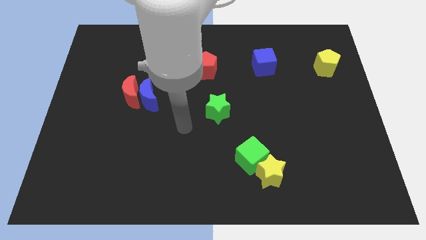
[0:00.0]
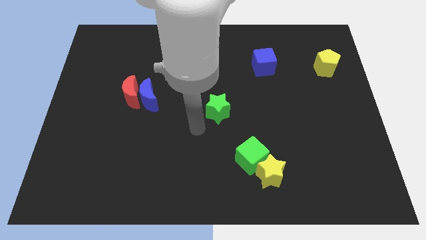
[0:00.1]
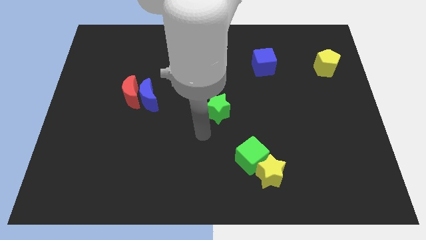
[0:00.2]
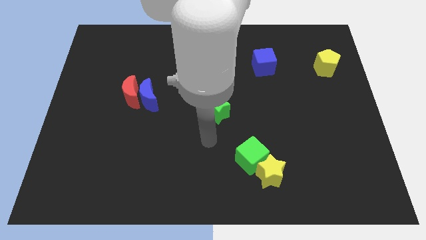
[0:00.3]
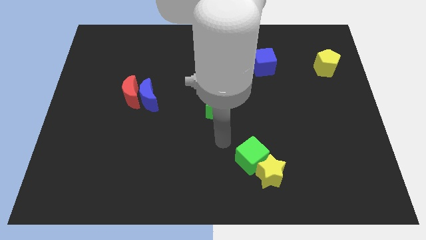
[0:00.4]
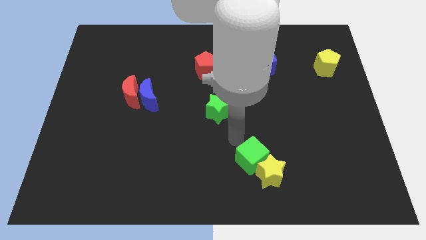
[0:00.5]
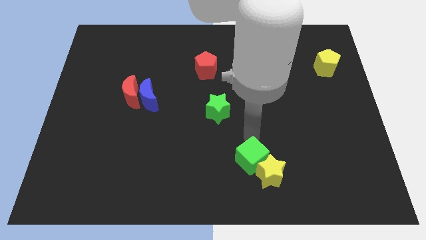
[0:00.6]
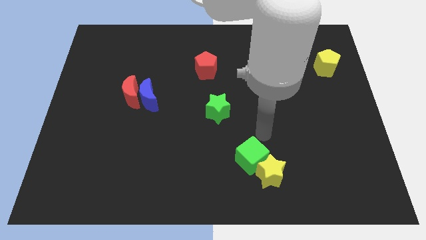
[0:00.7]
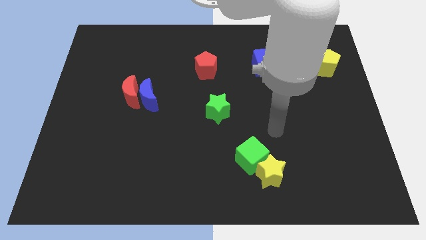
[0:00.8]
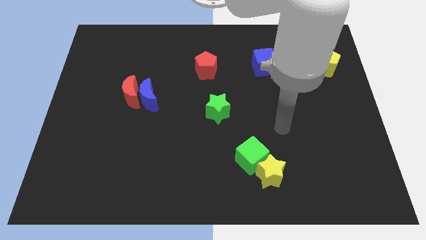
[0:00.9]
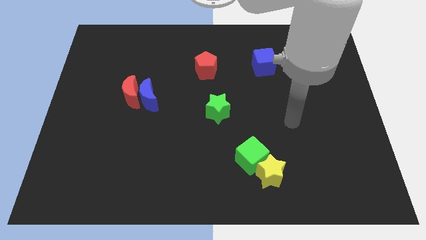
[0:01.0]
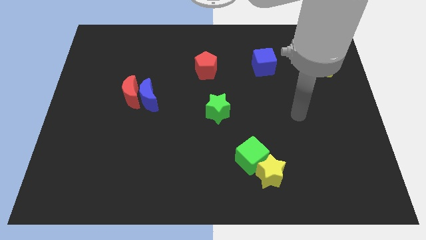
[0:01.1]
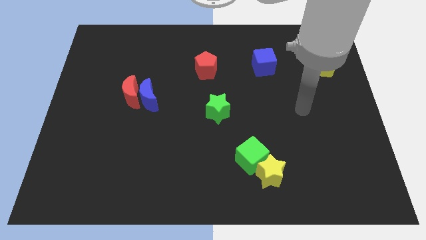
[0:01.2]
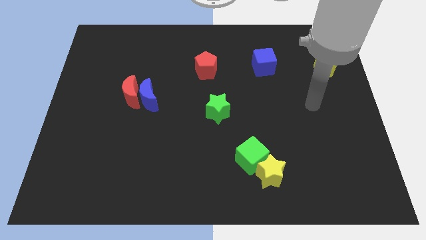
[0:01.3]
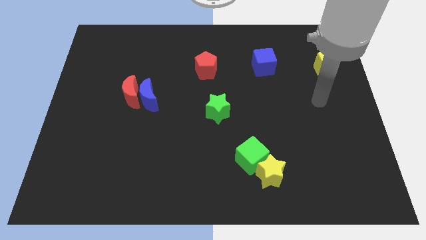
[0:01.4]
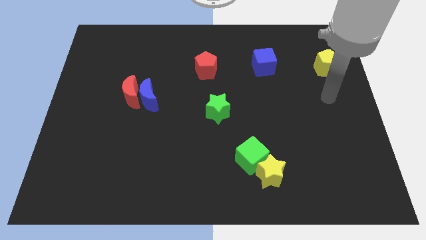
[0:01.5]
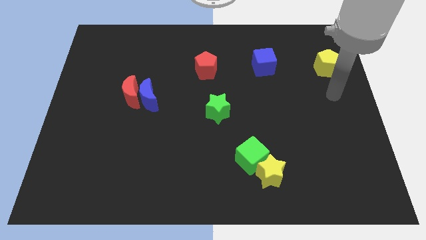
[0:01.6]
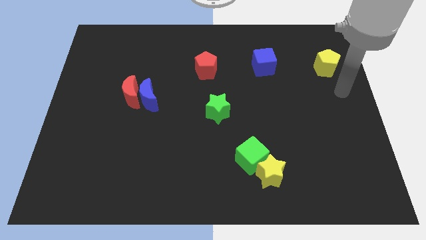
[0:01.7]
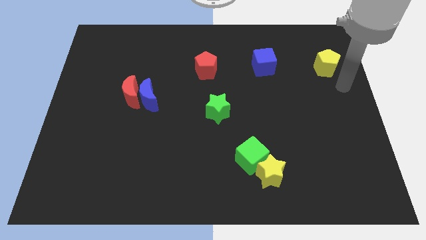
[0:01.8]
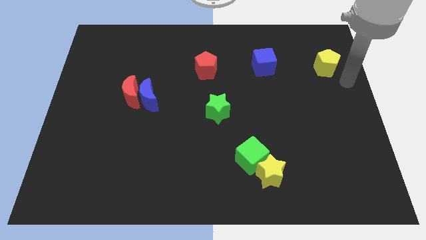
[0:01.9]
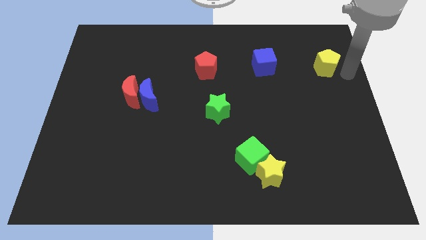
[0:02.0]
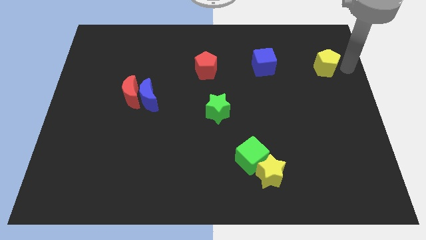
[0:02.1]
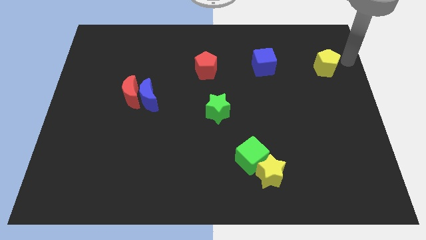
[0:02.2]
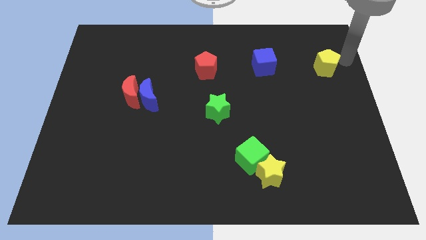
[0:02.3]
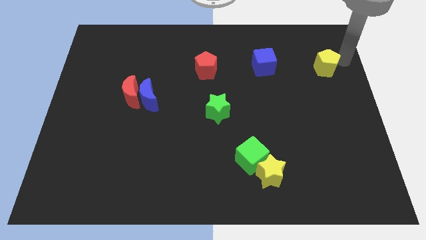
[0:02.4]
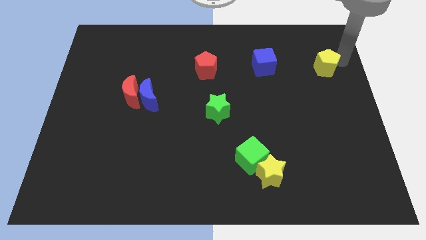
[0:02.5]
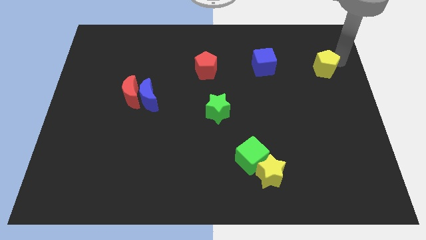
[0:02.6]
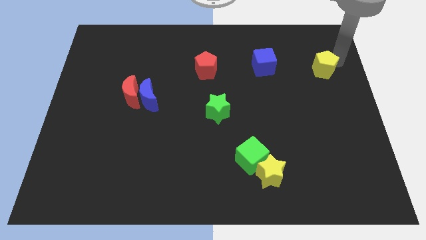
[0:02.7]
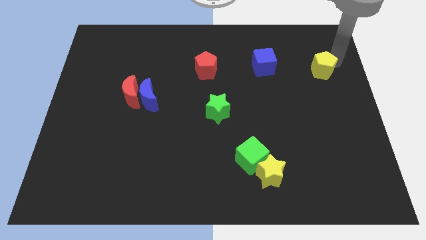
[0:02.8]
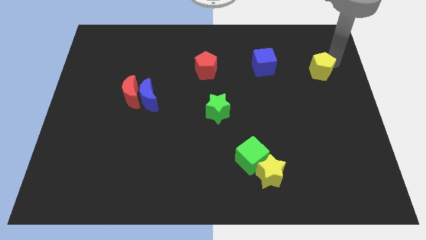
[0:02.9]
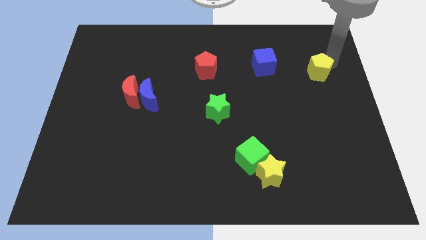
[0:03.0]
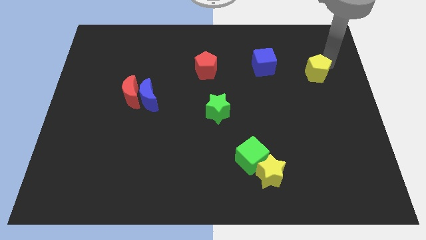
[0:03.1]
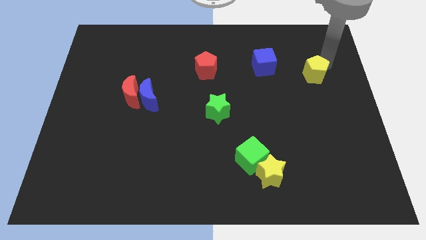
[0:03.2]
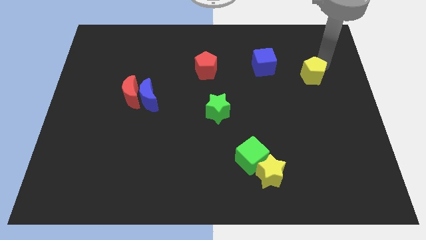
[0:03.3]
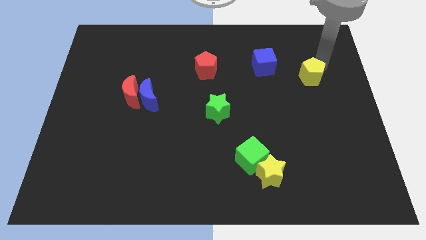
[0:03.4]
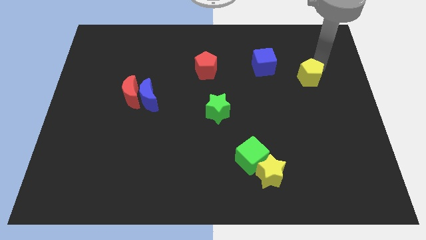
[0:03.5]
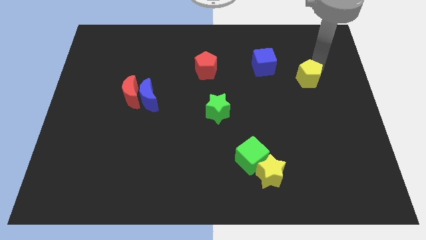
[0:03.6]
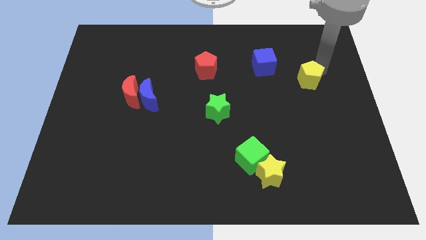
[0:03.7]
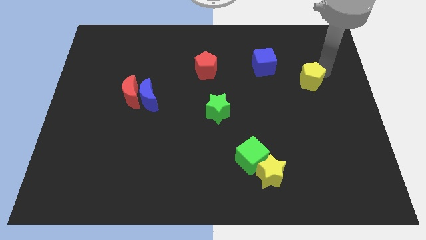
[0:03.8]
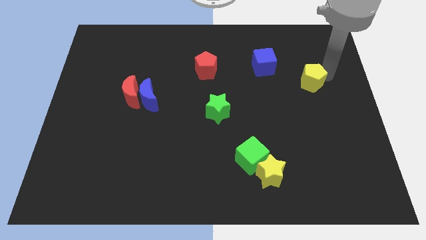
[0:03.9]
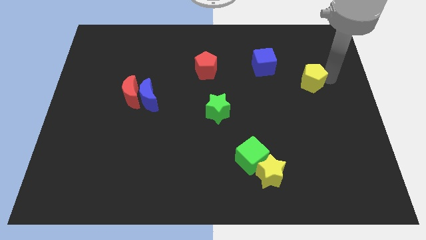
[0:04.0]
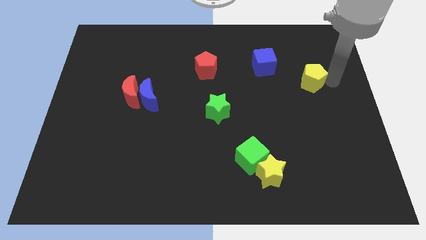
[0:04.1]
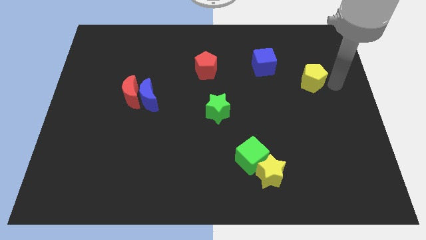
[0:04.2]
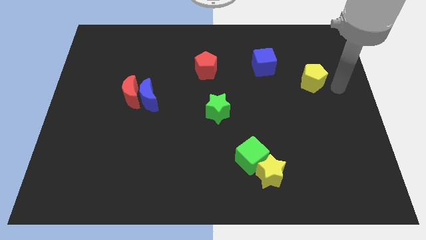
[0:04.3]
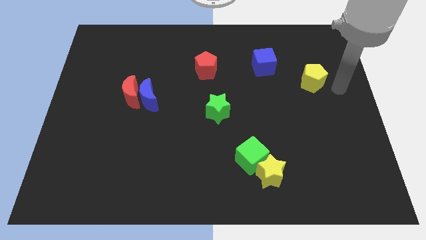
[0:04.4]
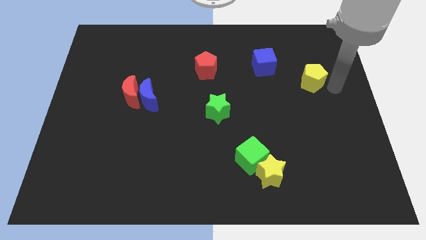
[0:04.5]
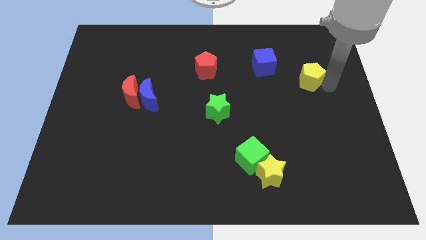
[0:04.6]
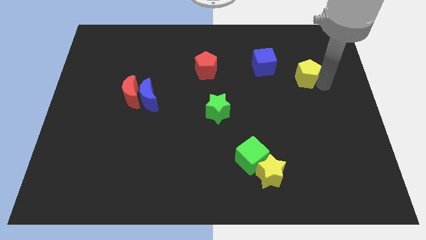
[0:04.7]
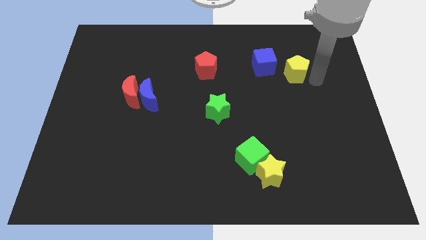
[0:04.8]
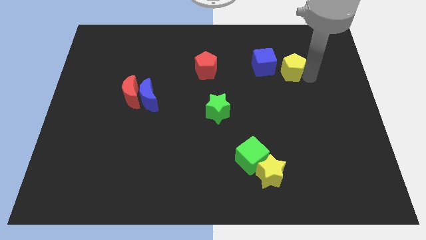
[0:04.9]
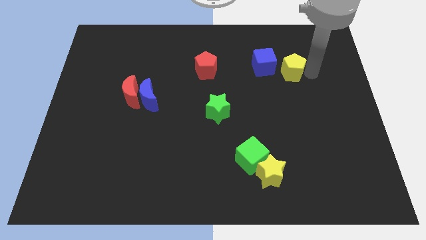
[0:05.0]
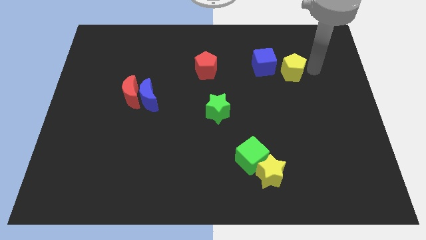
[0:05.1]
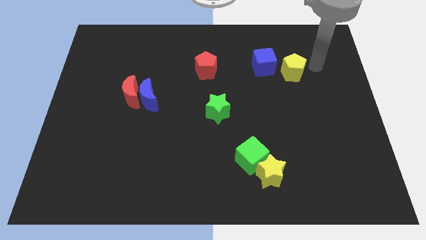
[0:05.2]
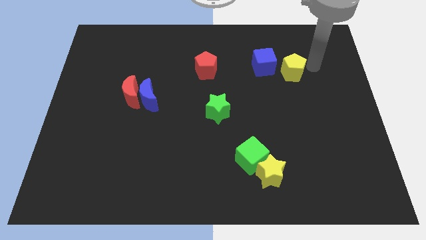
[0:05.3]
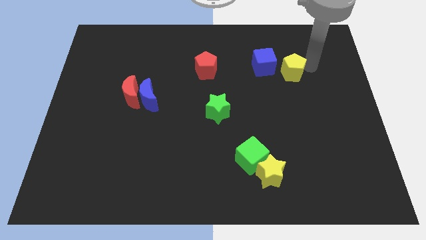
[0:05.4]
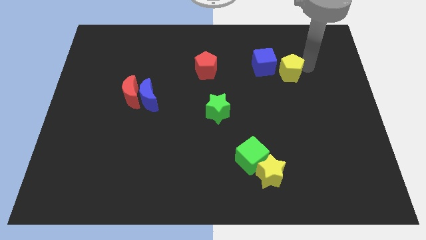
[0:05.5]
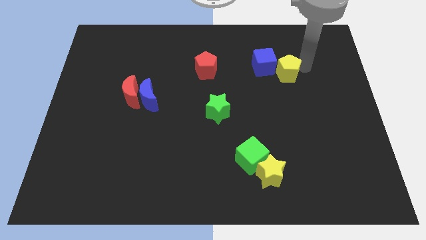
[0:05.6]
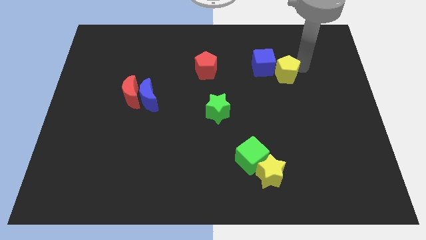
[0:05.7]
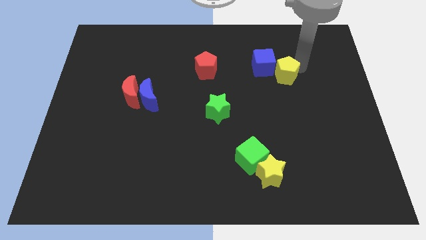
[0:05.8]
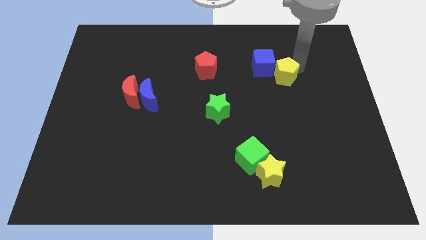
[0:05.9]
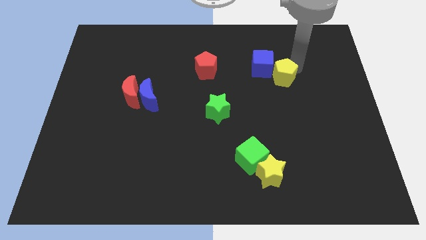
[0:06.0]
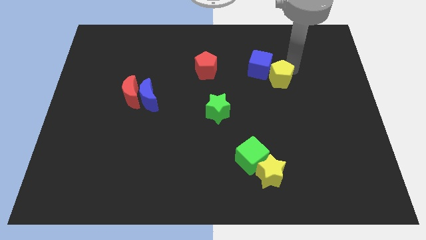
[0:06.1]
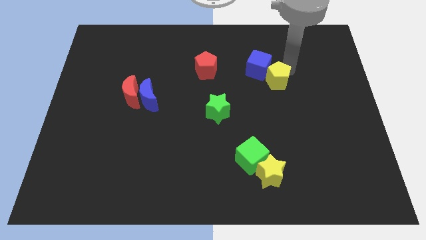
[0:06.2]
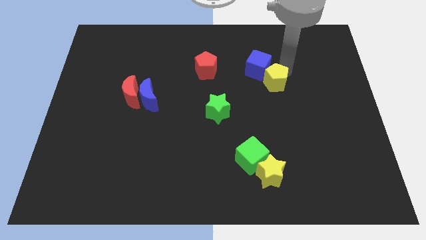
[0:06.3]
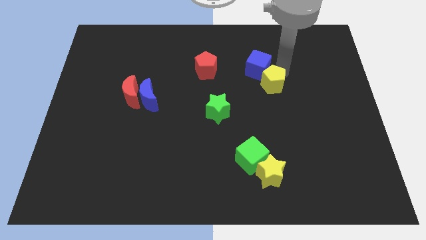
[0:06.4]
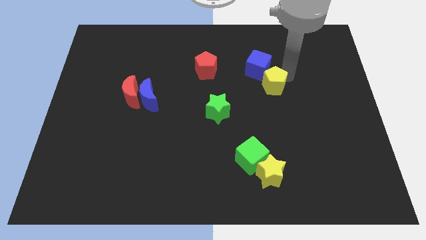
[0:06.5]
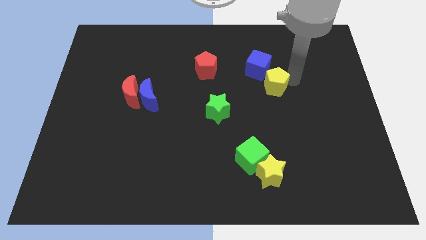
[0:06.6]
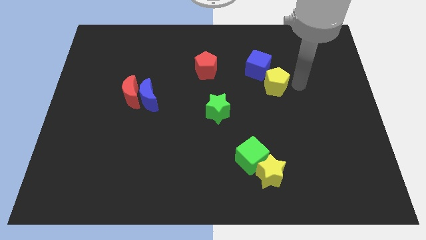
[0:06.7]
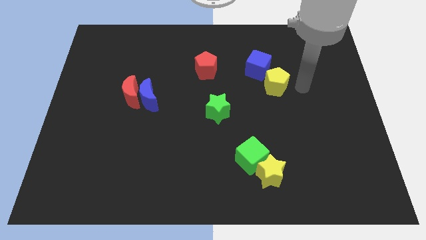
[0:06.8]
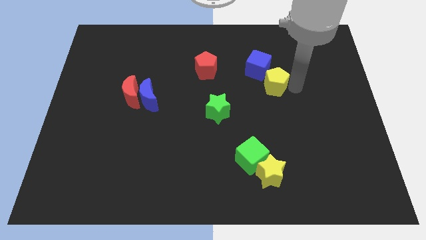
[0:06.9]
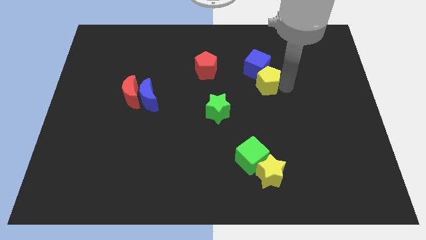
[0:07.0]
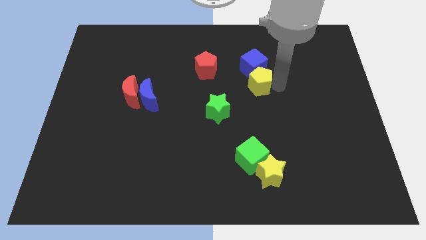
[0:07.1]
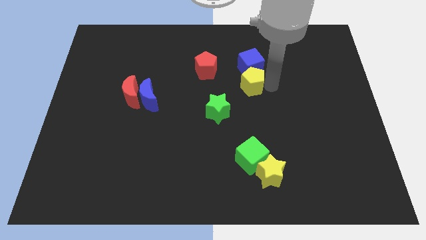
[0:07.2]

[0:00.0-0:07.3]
put the yellow pentagon to the bottom left of the blue cube

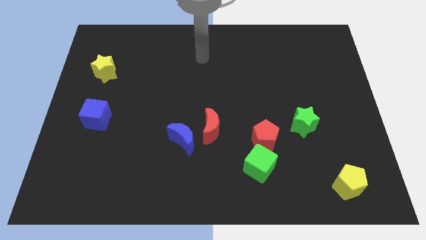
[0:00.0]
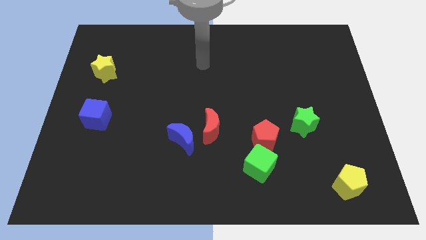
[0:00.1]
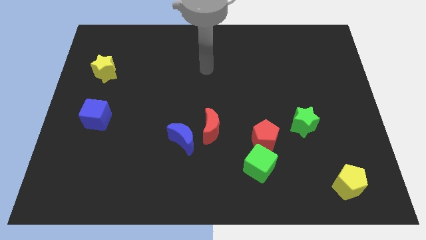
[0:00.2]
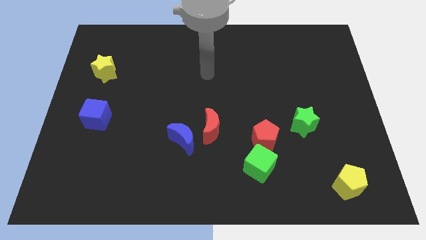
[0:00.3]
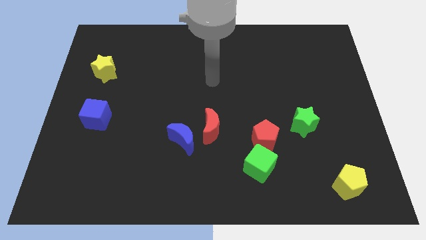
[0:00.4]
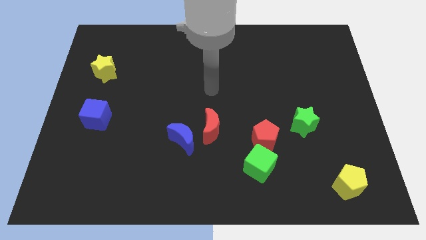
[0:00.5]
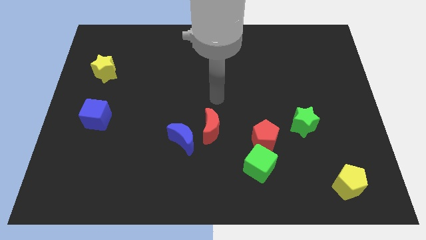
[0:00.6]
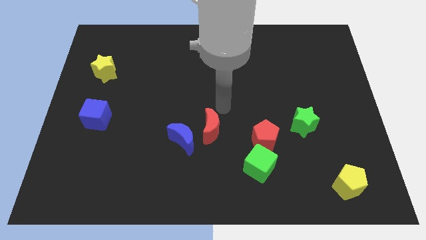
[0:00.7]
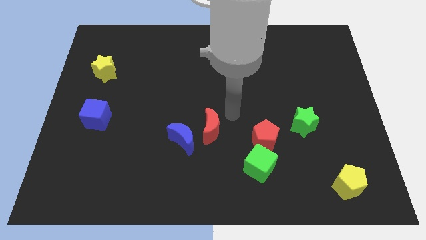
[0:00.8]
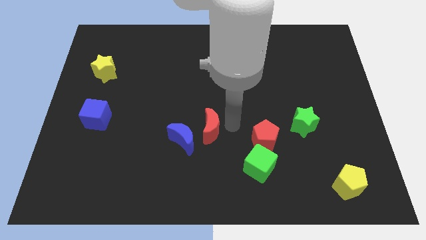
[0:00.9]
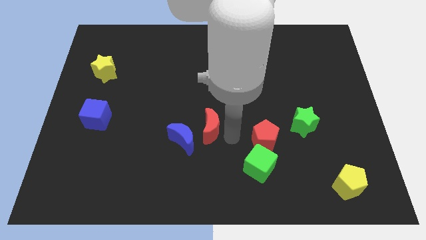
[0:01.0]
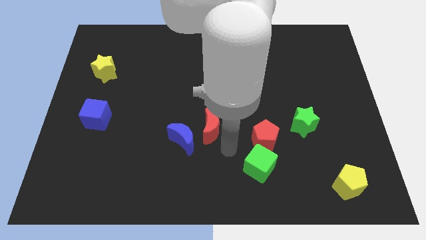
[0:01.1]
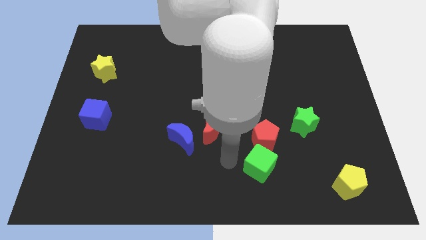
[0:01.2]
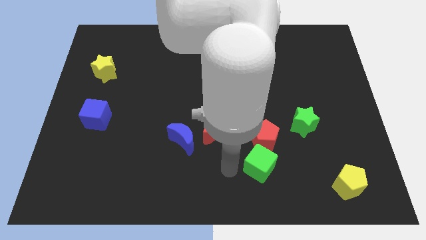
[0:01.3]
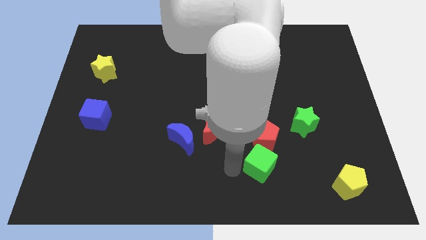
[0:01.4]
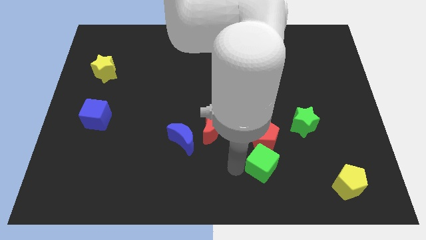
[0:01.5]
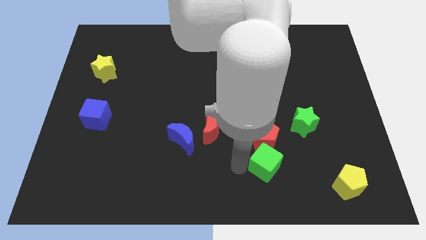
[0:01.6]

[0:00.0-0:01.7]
slide the green cube diagonally down and to the right of the red pentagon
